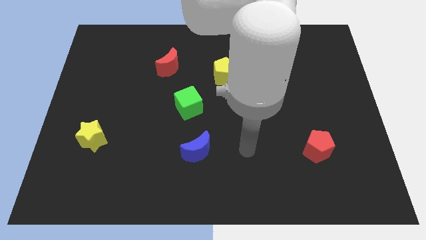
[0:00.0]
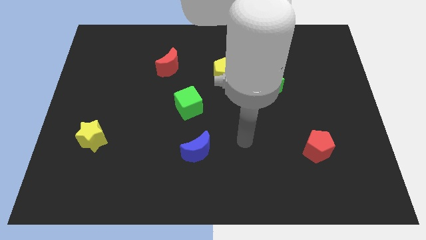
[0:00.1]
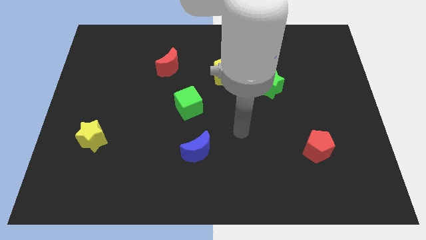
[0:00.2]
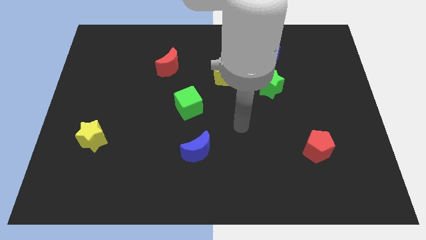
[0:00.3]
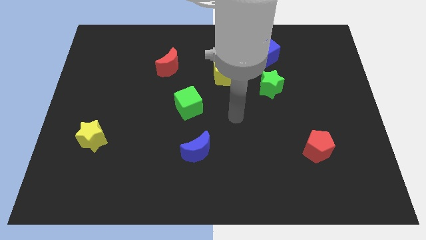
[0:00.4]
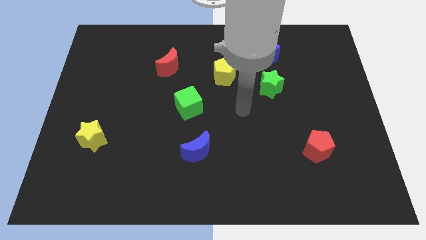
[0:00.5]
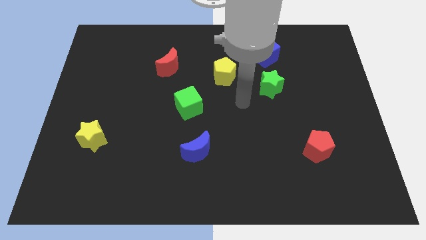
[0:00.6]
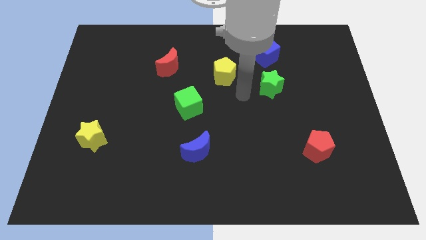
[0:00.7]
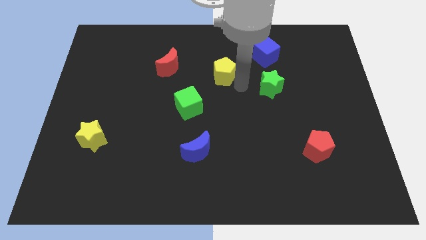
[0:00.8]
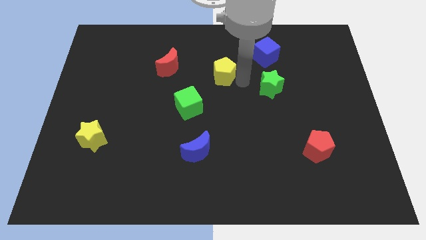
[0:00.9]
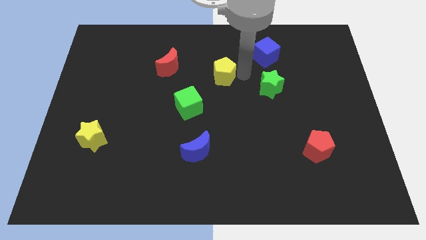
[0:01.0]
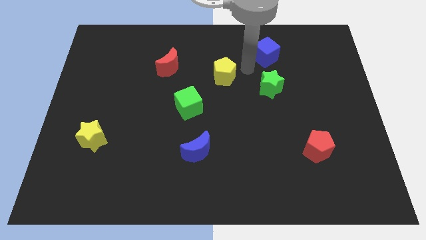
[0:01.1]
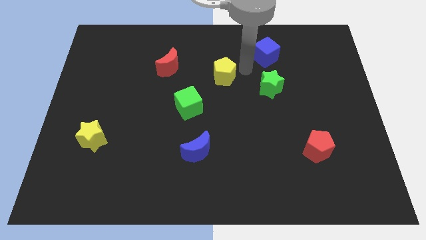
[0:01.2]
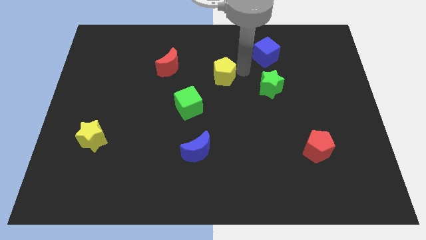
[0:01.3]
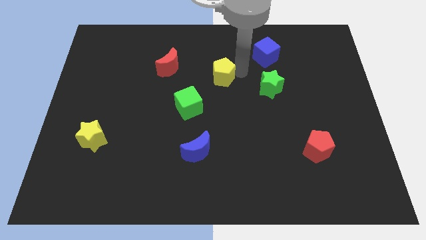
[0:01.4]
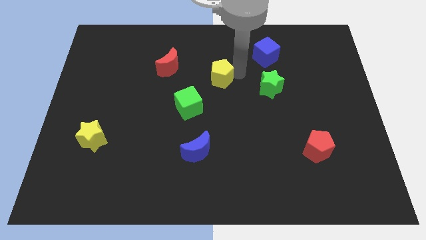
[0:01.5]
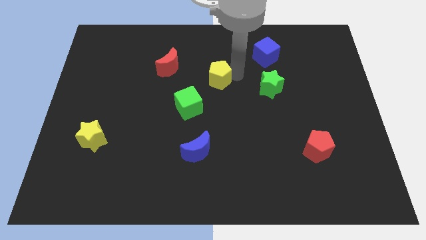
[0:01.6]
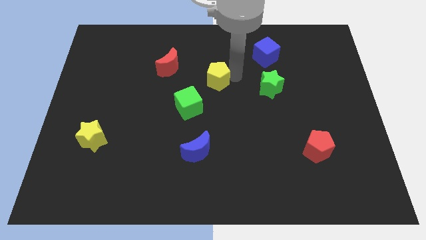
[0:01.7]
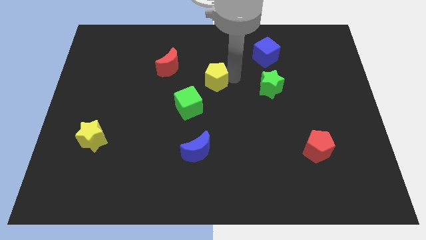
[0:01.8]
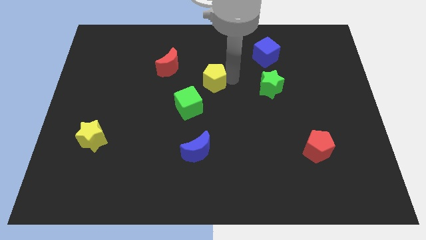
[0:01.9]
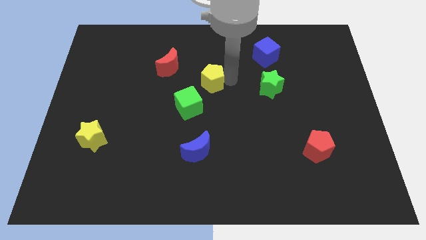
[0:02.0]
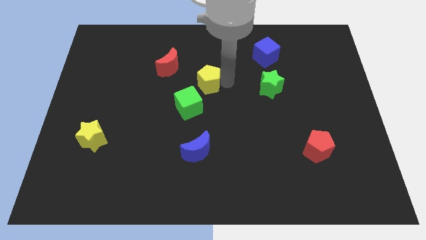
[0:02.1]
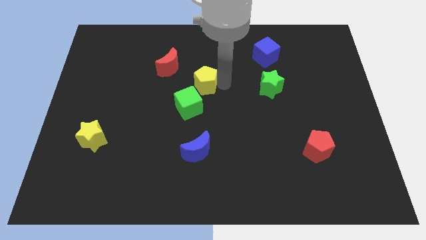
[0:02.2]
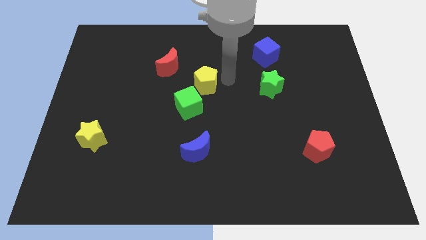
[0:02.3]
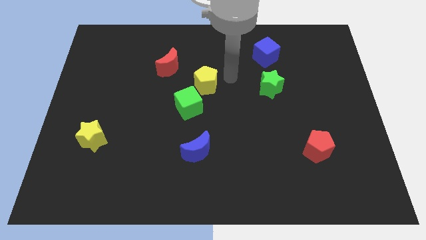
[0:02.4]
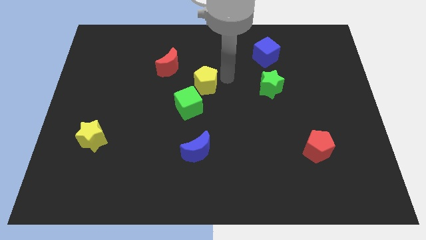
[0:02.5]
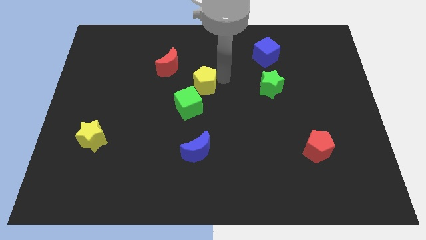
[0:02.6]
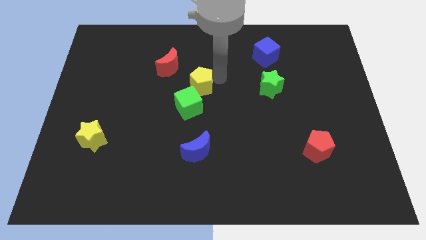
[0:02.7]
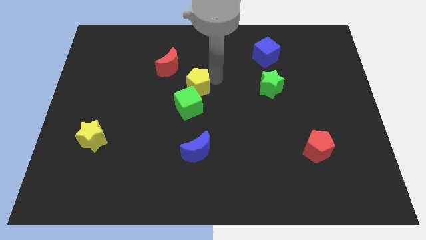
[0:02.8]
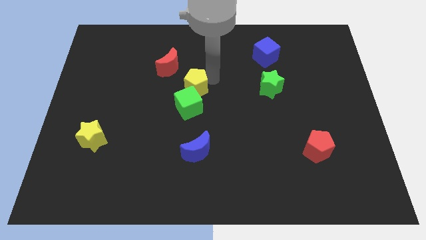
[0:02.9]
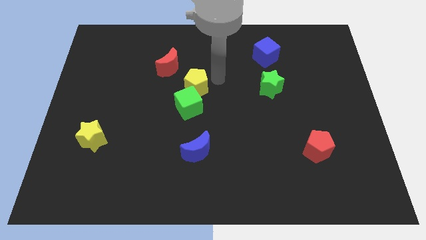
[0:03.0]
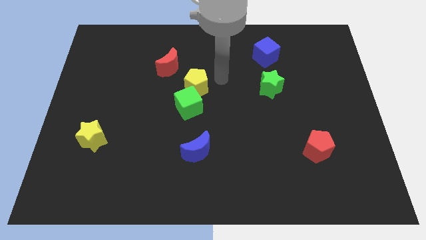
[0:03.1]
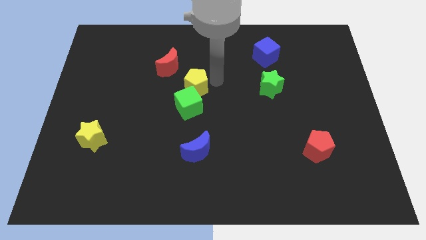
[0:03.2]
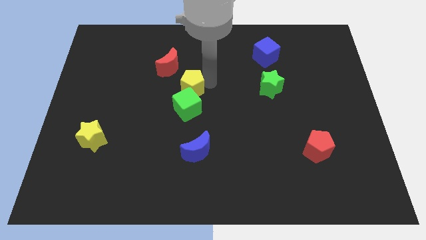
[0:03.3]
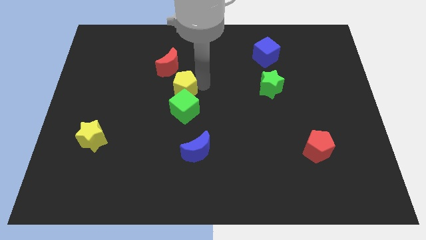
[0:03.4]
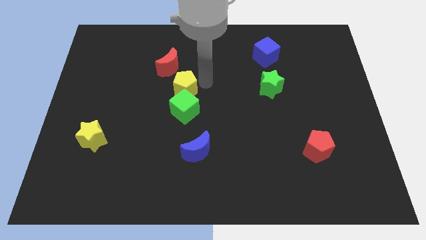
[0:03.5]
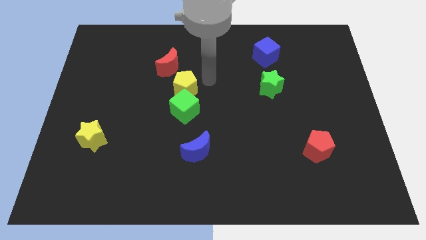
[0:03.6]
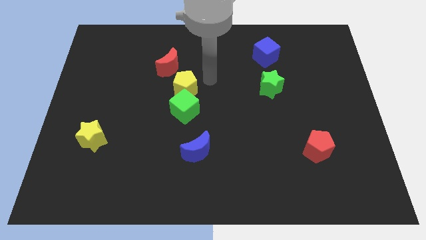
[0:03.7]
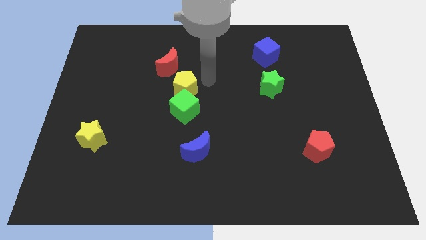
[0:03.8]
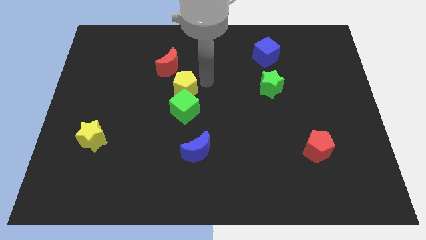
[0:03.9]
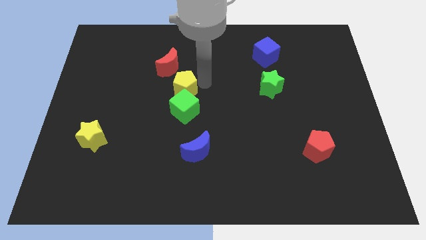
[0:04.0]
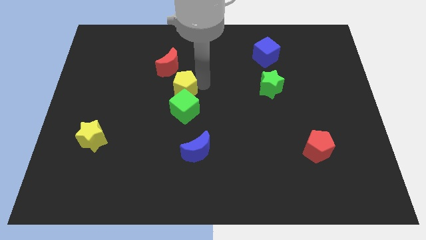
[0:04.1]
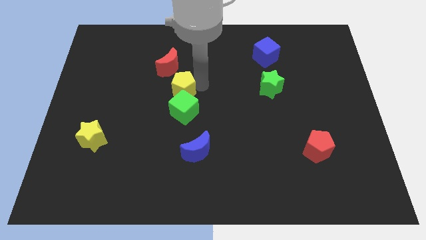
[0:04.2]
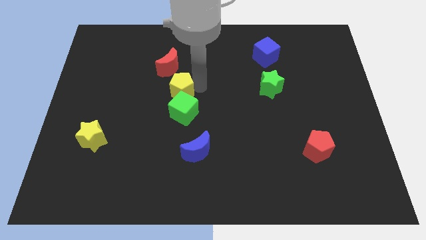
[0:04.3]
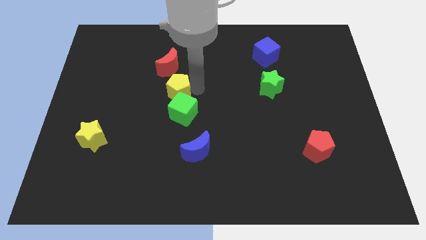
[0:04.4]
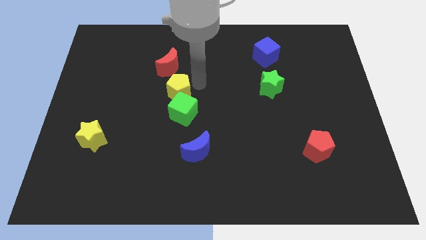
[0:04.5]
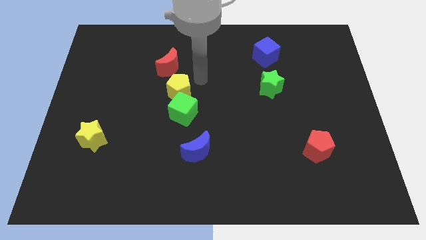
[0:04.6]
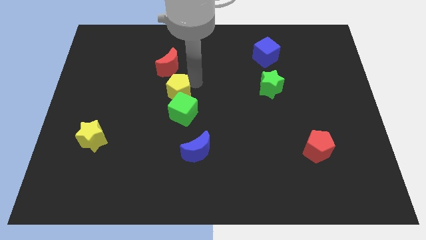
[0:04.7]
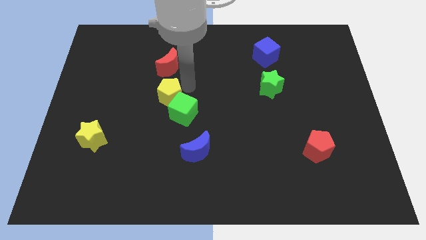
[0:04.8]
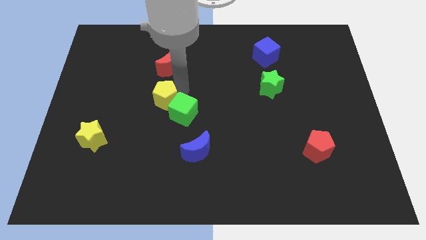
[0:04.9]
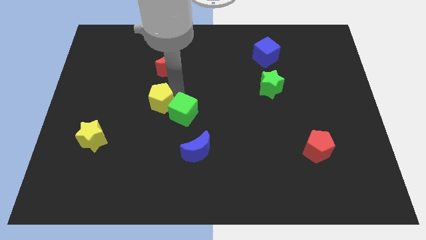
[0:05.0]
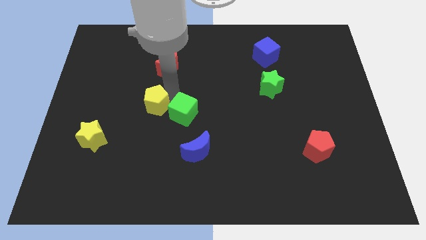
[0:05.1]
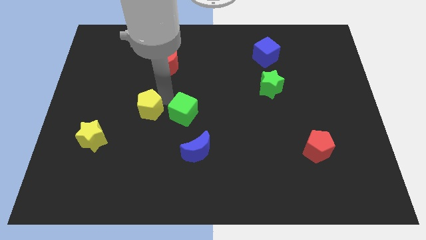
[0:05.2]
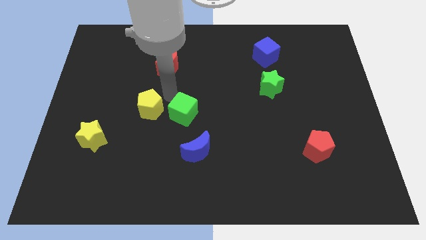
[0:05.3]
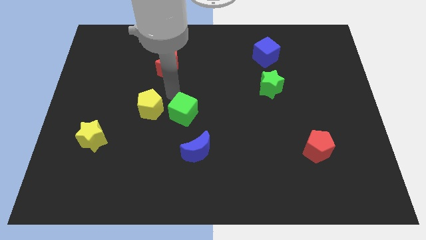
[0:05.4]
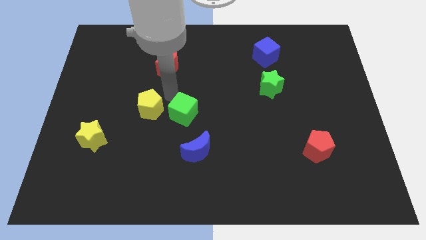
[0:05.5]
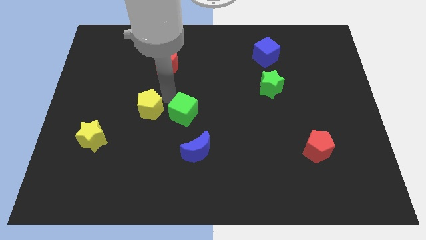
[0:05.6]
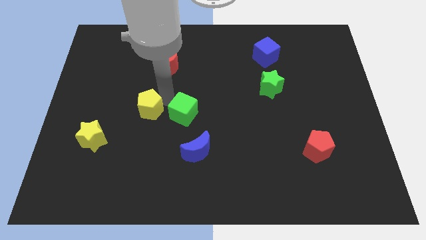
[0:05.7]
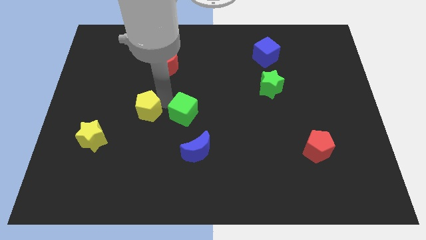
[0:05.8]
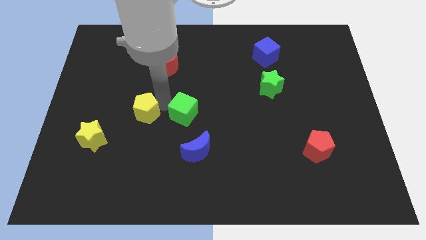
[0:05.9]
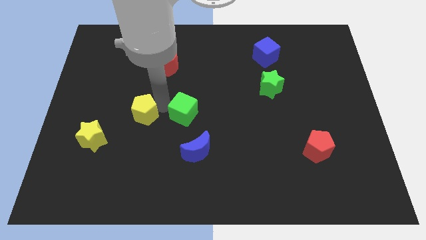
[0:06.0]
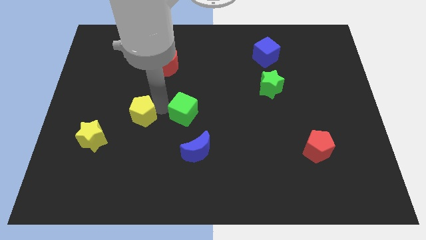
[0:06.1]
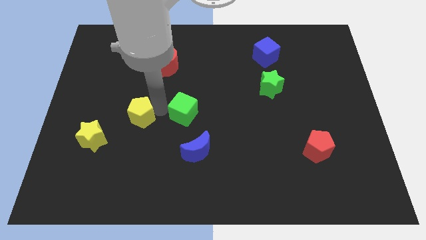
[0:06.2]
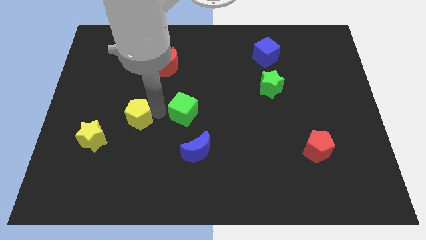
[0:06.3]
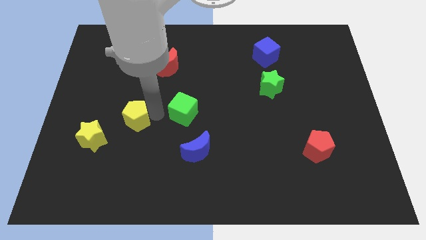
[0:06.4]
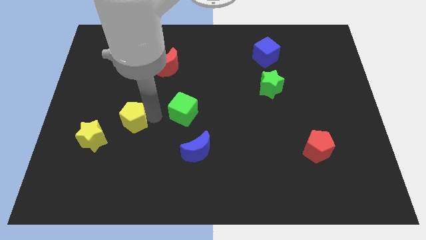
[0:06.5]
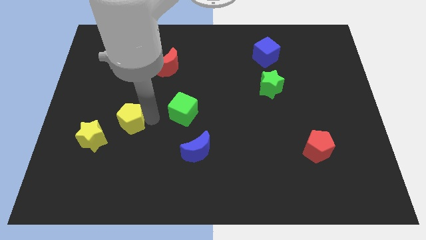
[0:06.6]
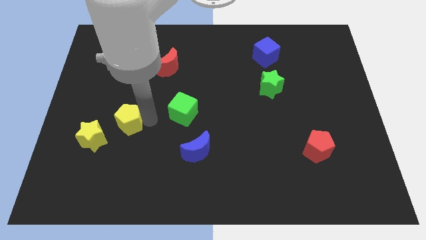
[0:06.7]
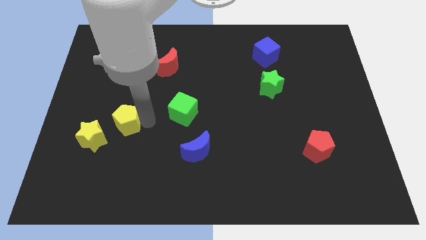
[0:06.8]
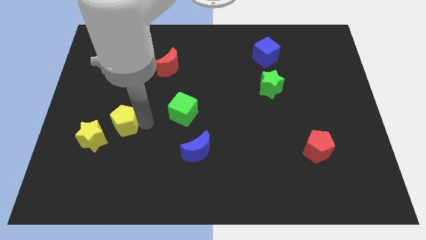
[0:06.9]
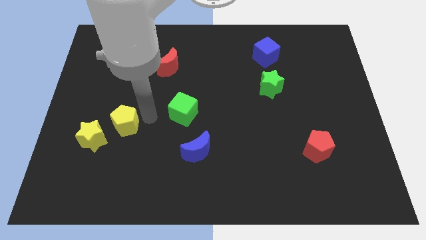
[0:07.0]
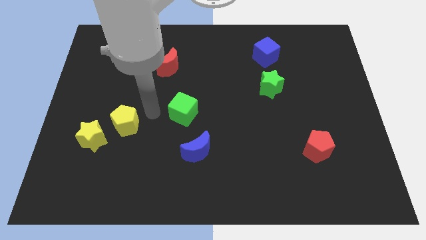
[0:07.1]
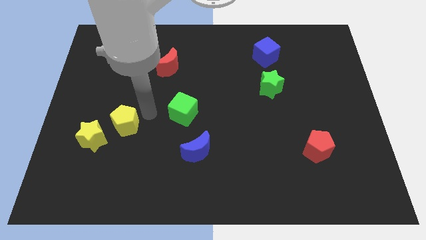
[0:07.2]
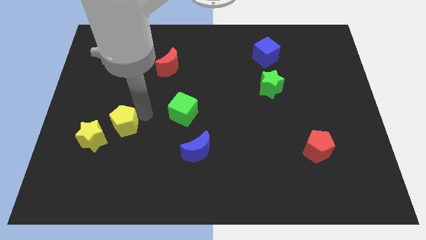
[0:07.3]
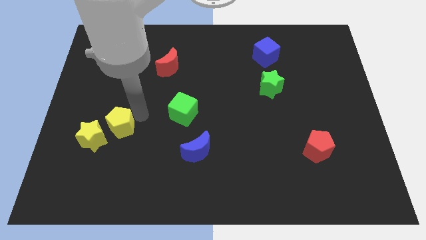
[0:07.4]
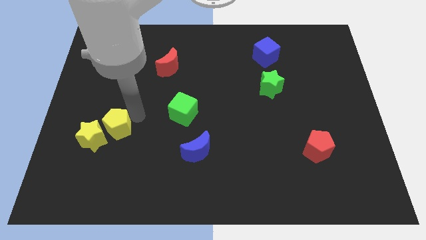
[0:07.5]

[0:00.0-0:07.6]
move the yellow pentagon next to the yellow star
